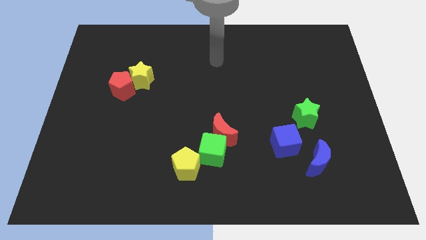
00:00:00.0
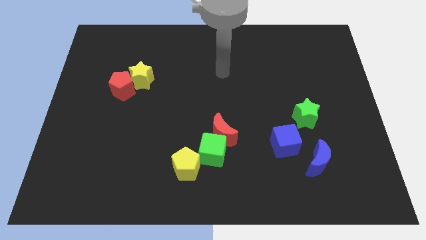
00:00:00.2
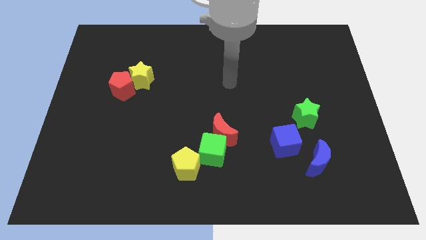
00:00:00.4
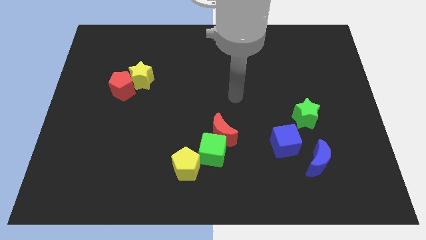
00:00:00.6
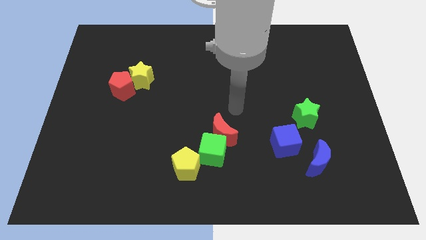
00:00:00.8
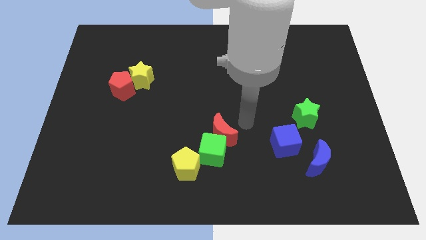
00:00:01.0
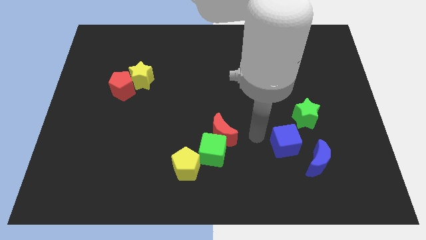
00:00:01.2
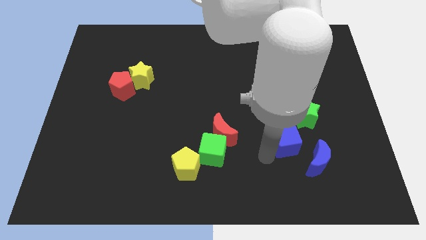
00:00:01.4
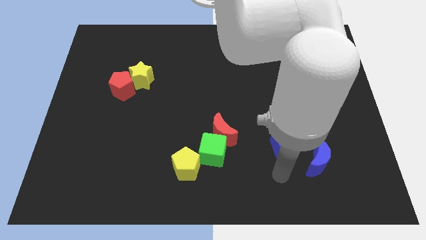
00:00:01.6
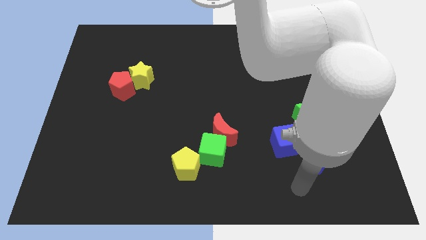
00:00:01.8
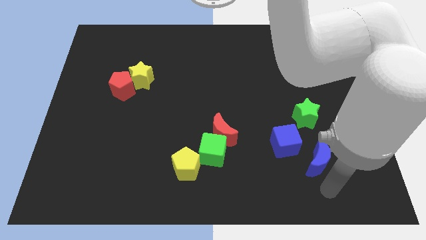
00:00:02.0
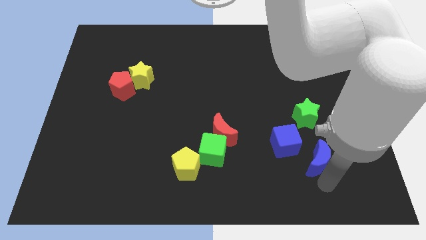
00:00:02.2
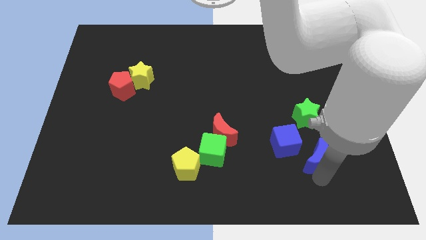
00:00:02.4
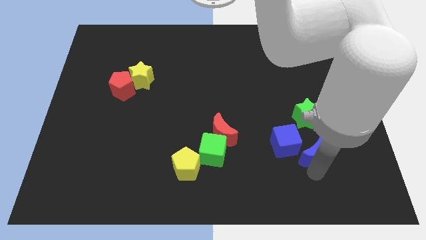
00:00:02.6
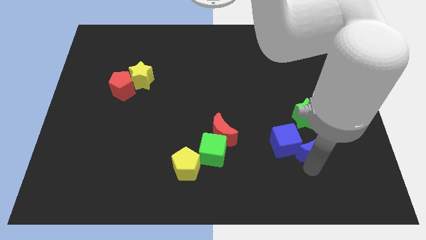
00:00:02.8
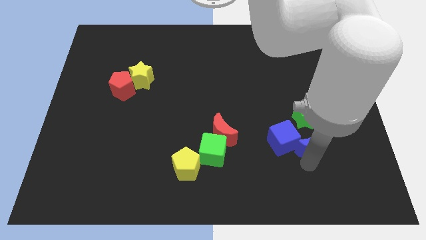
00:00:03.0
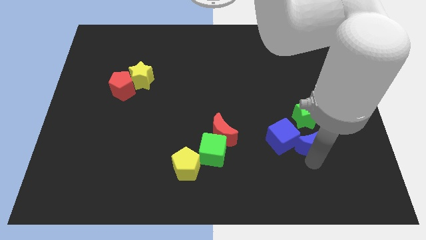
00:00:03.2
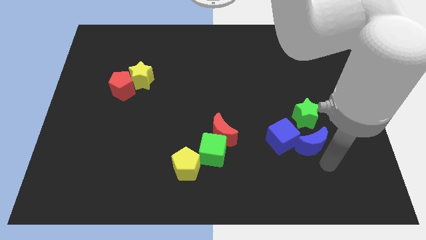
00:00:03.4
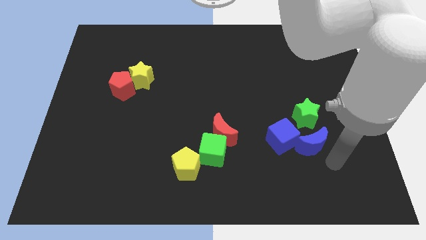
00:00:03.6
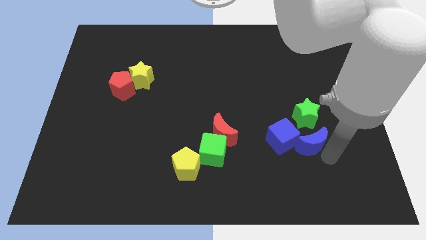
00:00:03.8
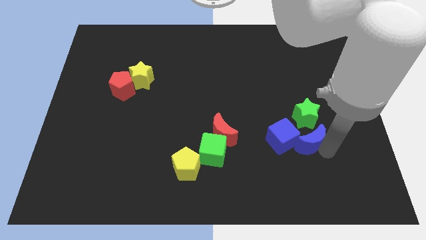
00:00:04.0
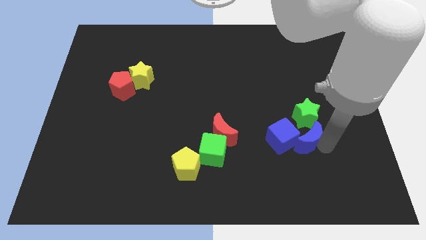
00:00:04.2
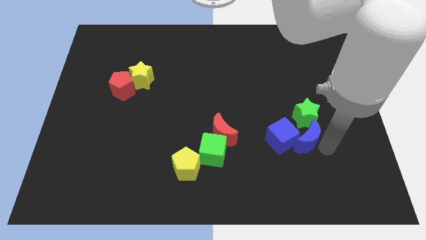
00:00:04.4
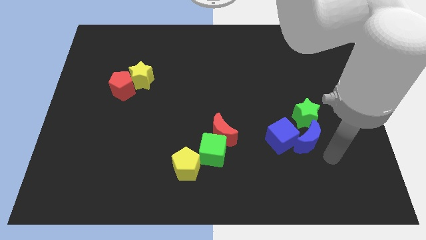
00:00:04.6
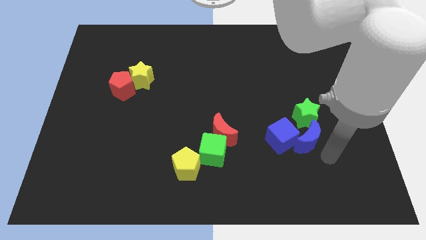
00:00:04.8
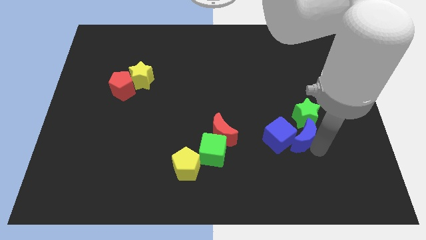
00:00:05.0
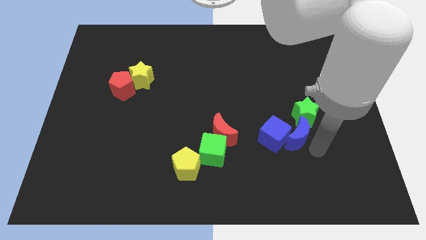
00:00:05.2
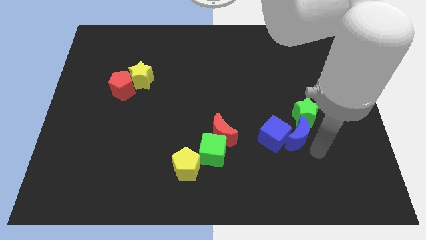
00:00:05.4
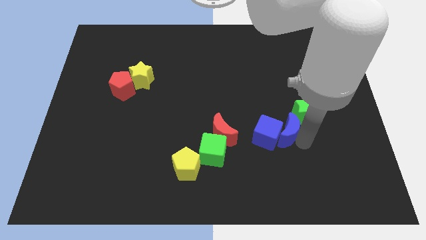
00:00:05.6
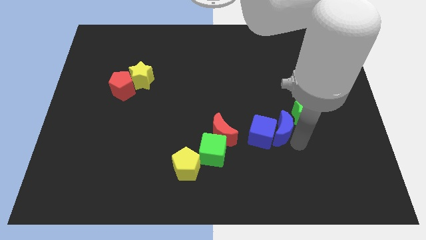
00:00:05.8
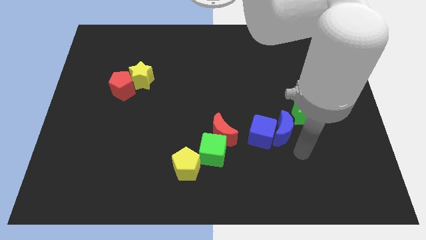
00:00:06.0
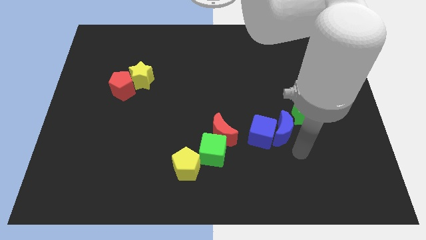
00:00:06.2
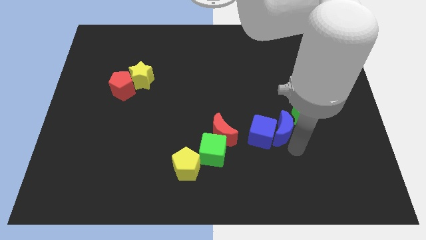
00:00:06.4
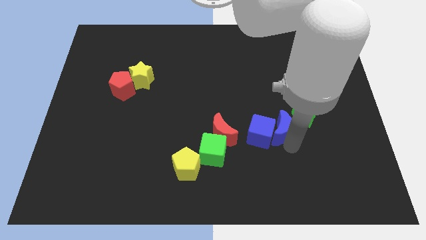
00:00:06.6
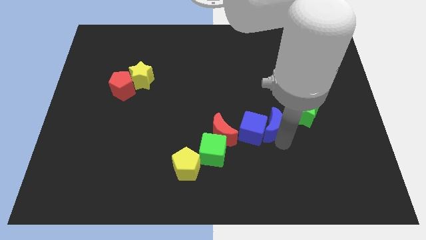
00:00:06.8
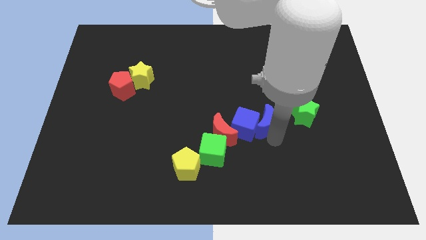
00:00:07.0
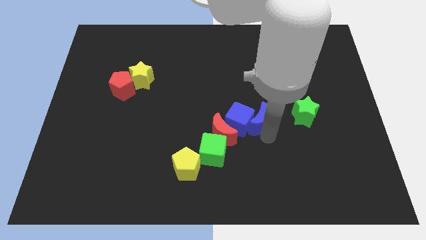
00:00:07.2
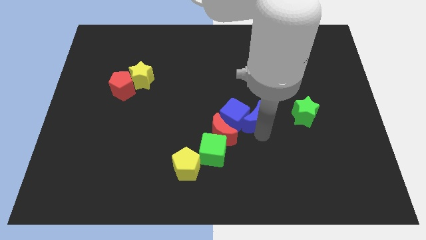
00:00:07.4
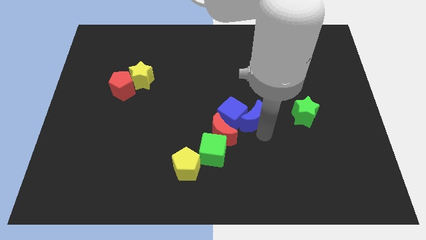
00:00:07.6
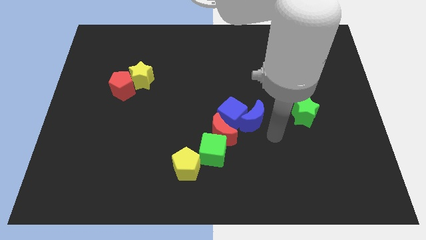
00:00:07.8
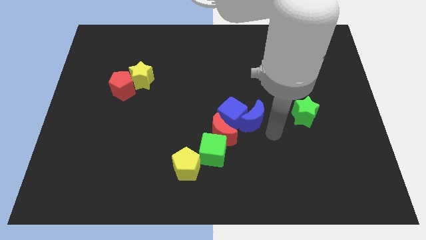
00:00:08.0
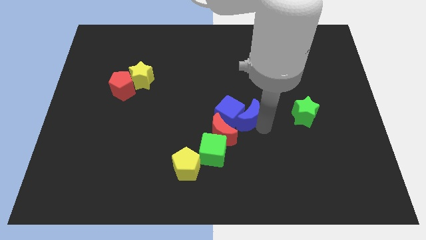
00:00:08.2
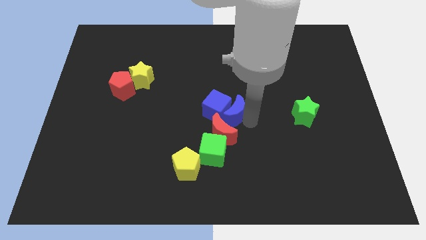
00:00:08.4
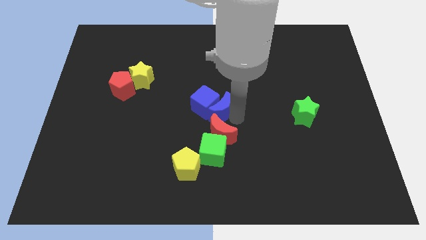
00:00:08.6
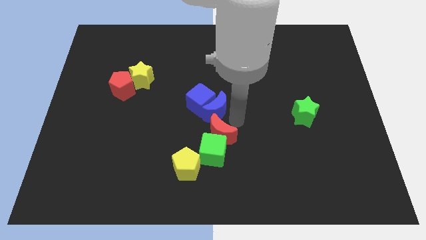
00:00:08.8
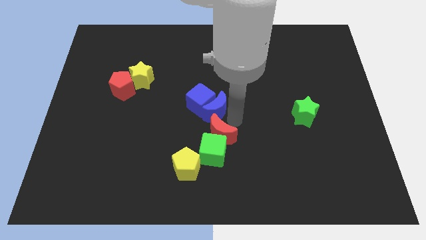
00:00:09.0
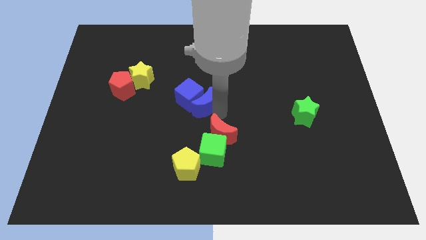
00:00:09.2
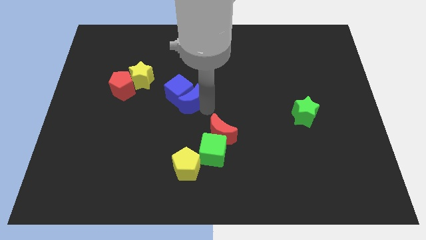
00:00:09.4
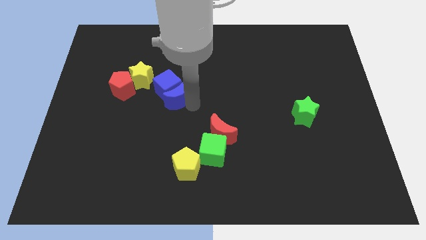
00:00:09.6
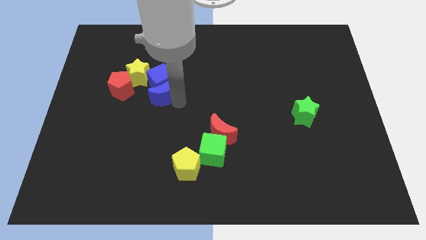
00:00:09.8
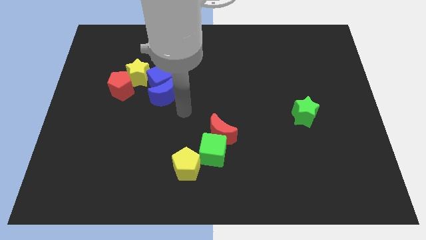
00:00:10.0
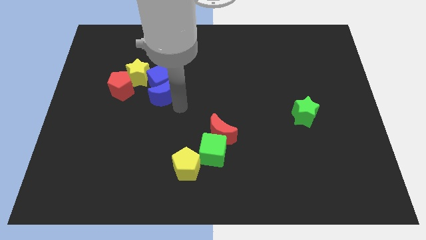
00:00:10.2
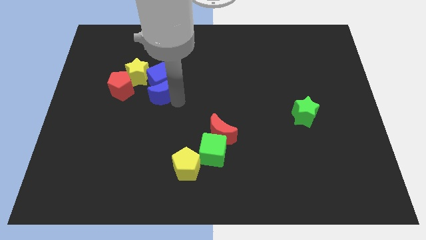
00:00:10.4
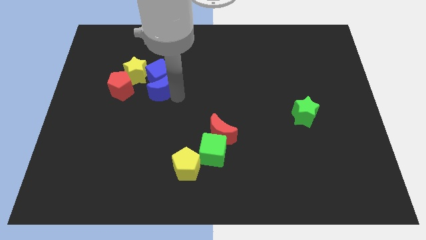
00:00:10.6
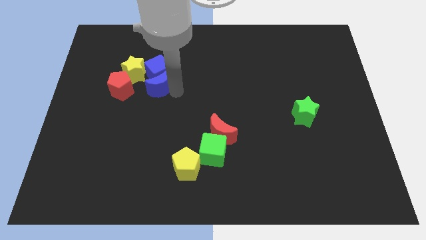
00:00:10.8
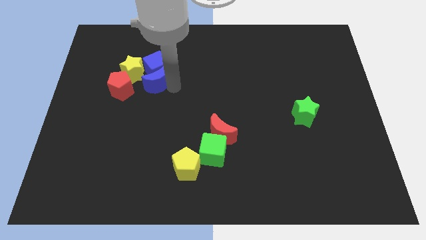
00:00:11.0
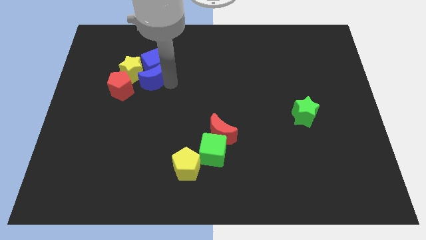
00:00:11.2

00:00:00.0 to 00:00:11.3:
move the blue moon close to the yellow star

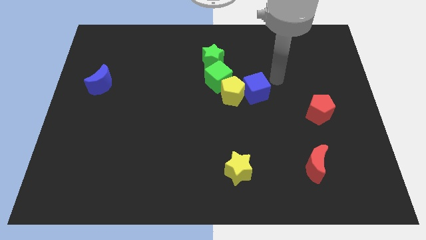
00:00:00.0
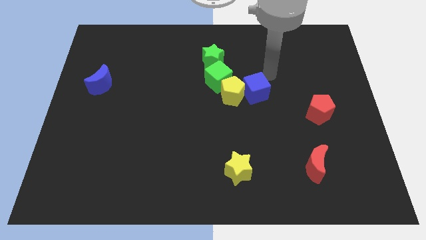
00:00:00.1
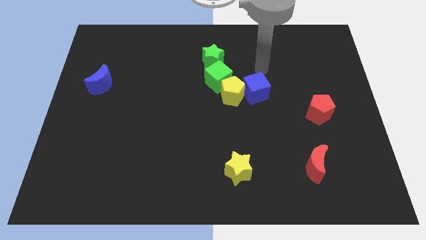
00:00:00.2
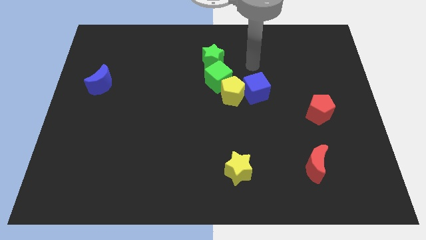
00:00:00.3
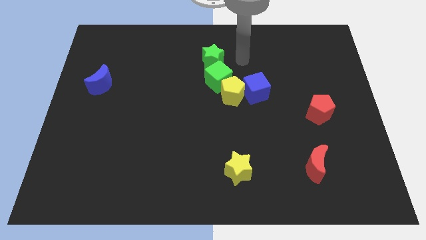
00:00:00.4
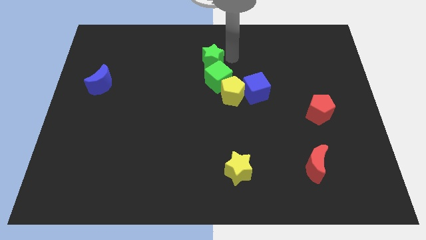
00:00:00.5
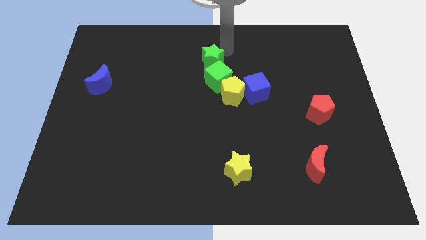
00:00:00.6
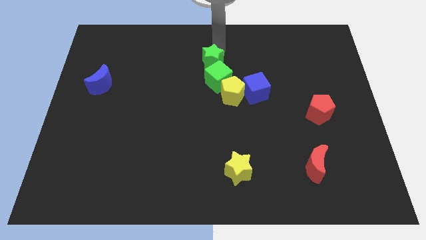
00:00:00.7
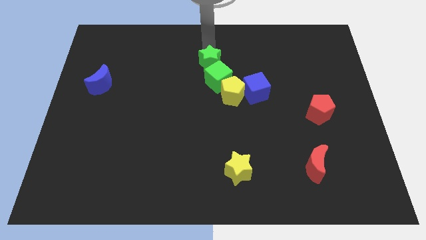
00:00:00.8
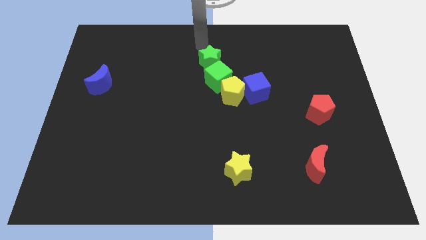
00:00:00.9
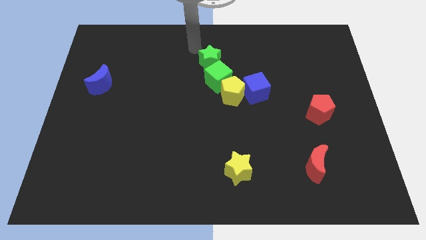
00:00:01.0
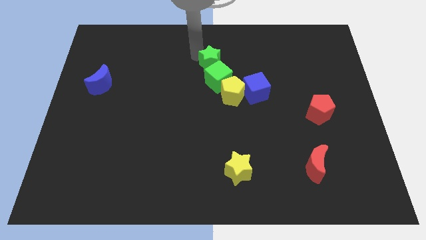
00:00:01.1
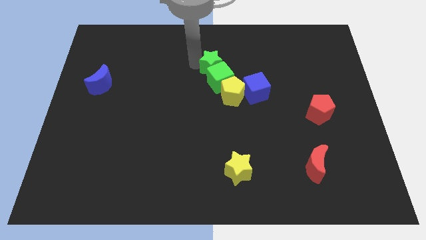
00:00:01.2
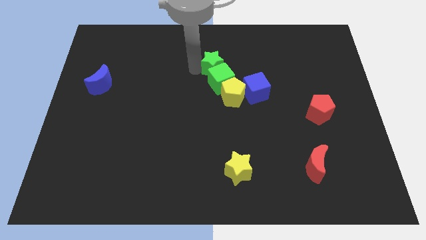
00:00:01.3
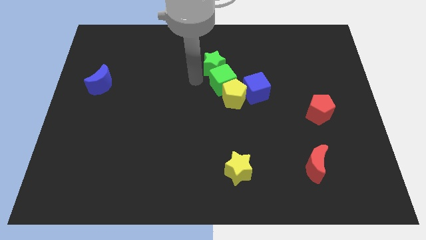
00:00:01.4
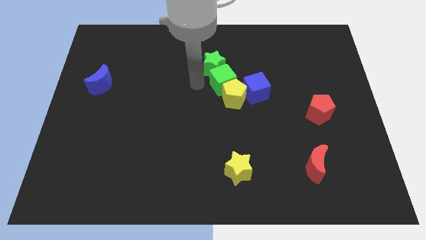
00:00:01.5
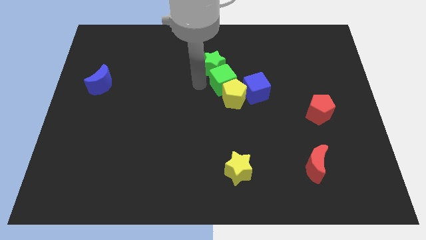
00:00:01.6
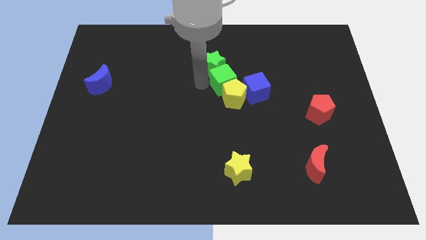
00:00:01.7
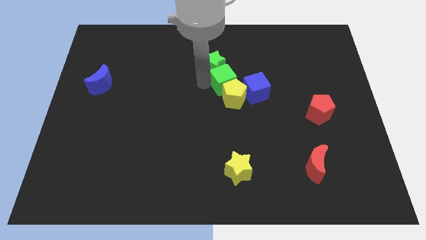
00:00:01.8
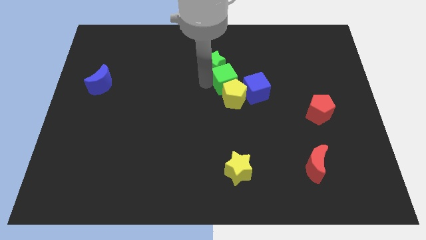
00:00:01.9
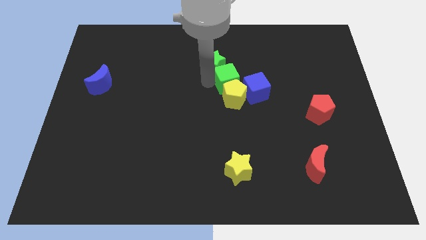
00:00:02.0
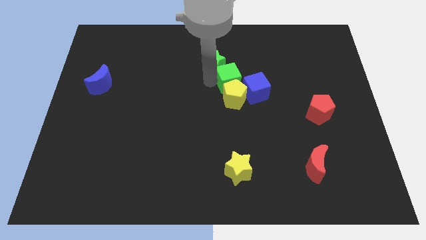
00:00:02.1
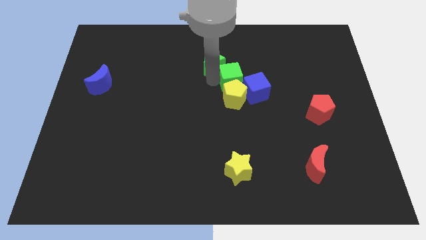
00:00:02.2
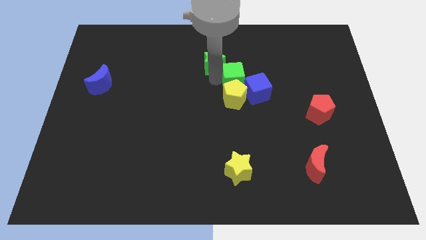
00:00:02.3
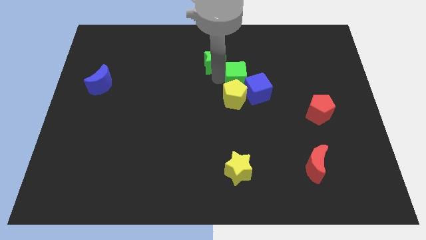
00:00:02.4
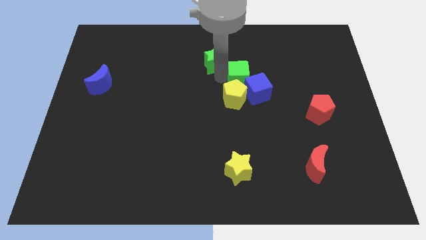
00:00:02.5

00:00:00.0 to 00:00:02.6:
push the green cube close to the blue cube

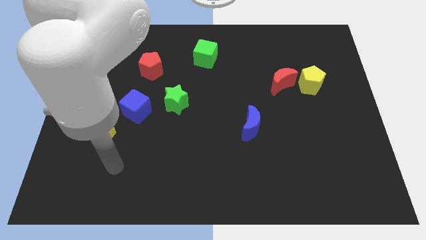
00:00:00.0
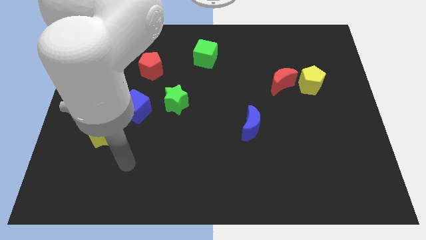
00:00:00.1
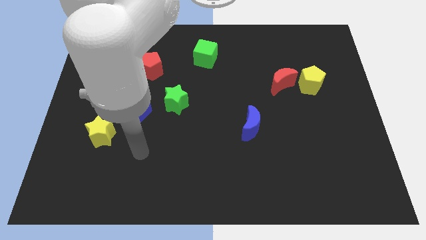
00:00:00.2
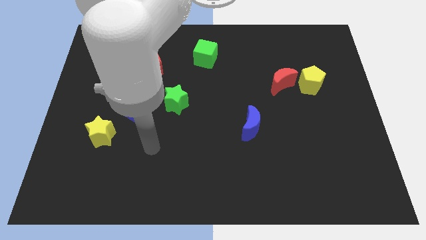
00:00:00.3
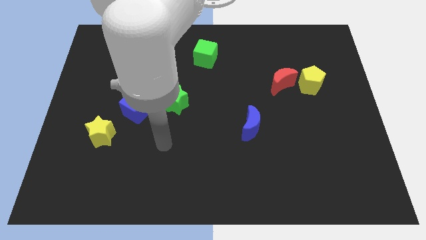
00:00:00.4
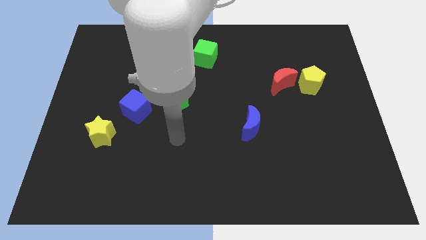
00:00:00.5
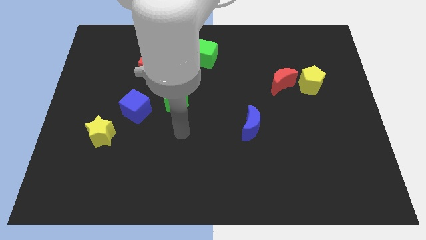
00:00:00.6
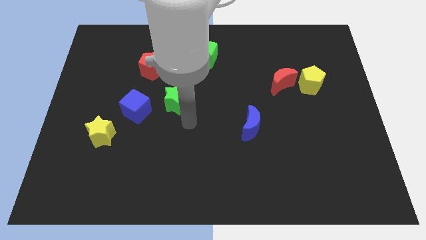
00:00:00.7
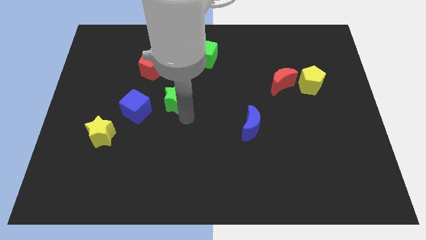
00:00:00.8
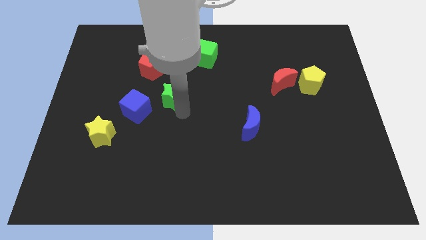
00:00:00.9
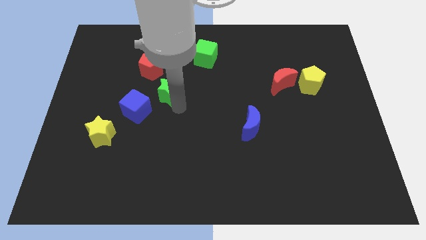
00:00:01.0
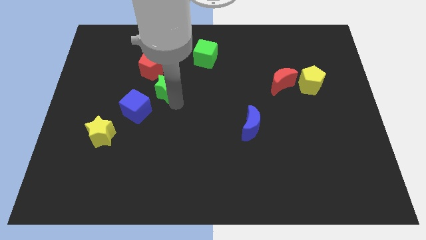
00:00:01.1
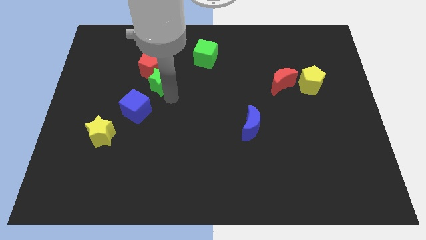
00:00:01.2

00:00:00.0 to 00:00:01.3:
push the green star next to the red pentagon
